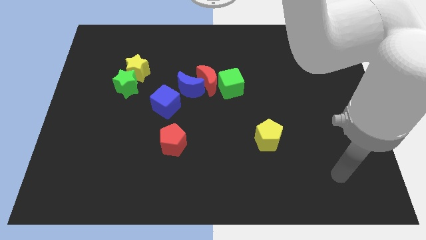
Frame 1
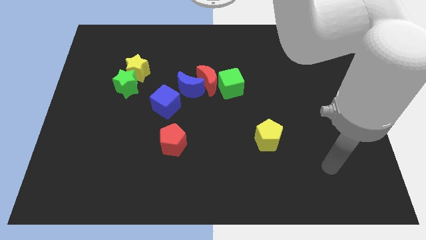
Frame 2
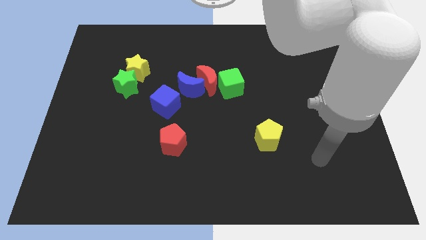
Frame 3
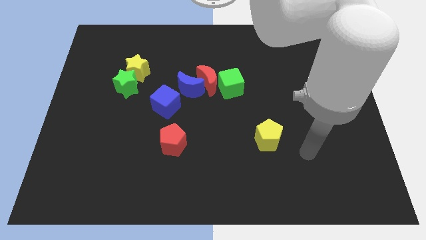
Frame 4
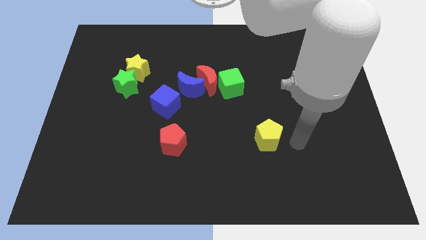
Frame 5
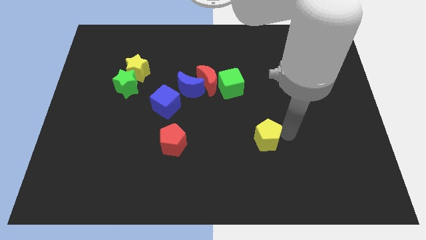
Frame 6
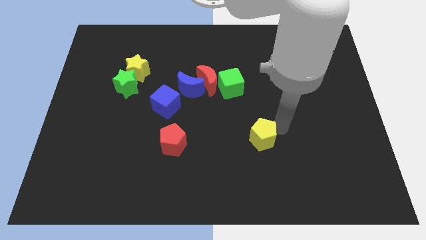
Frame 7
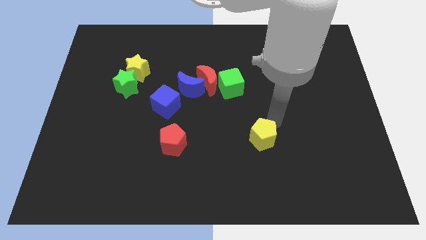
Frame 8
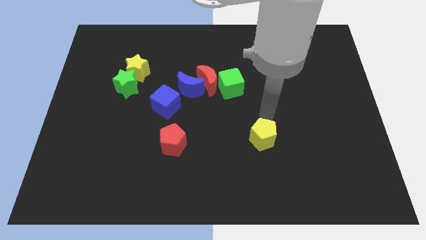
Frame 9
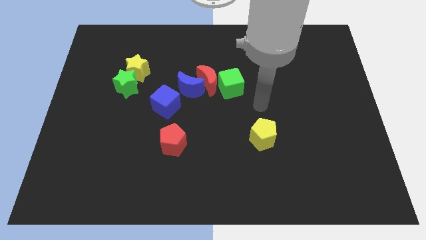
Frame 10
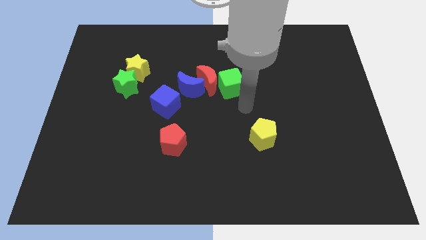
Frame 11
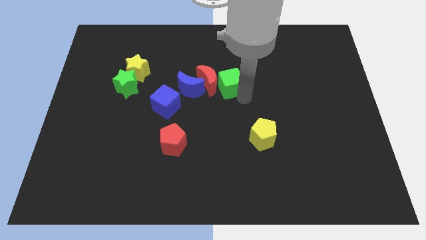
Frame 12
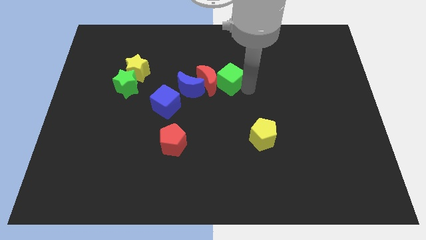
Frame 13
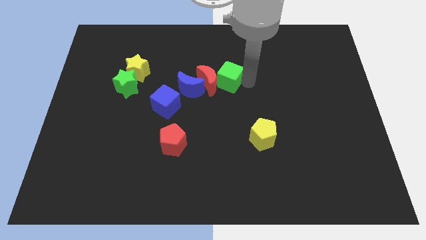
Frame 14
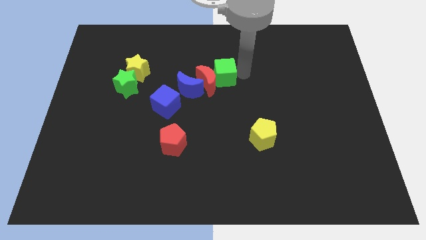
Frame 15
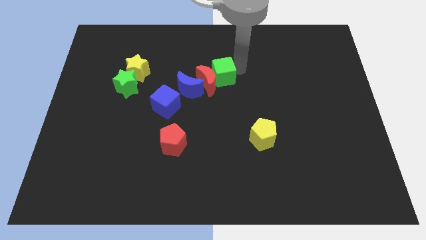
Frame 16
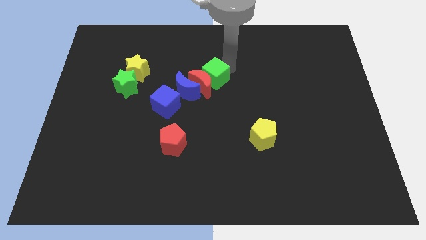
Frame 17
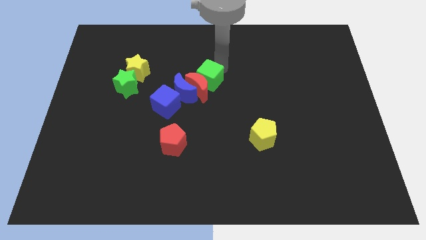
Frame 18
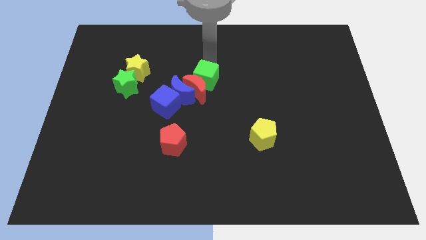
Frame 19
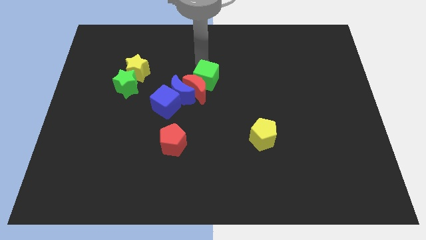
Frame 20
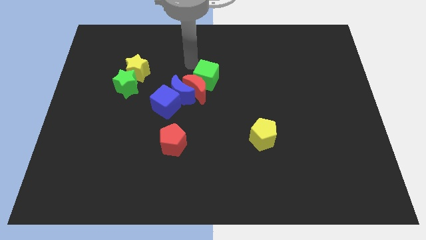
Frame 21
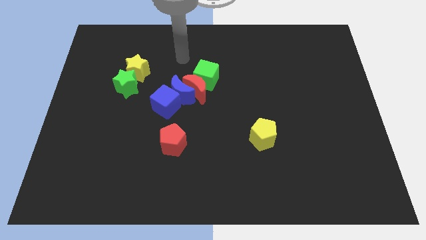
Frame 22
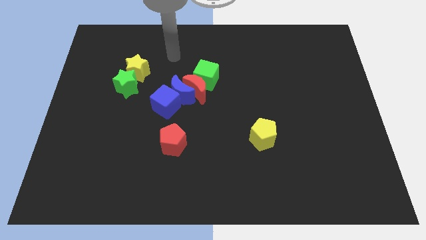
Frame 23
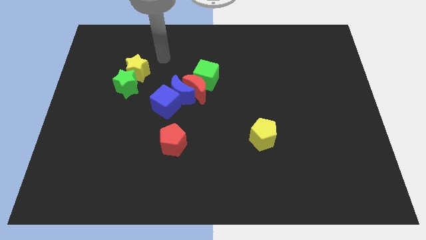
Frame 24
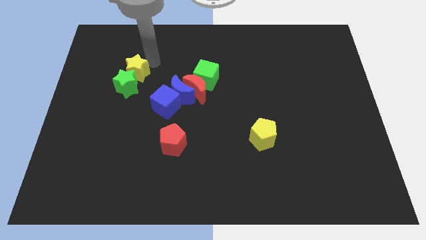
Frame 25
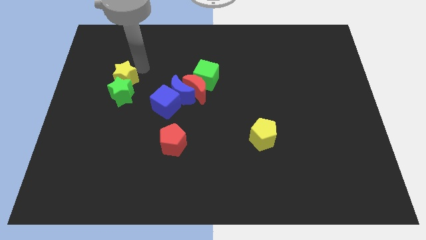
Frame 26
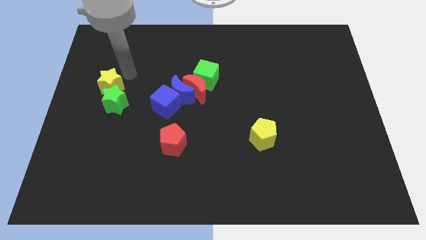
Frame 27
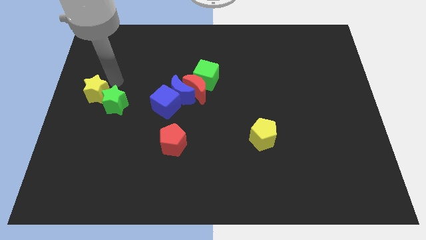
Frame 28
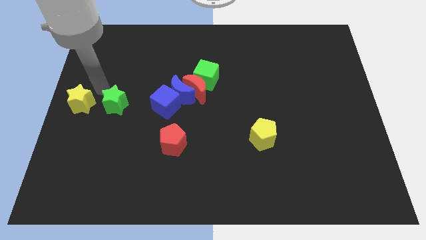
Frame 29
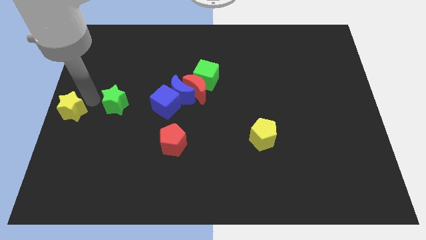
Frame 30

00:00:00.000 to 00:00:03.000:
separate the green star from the yellow star

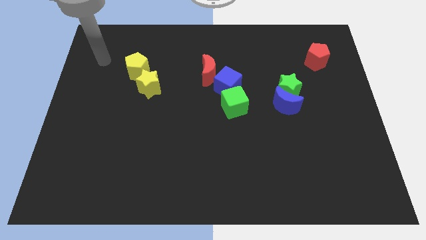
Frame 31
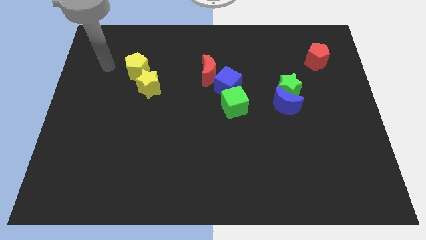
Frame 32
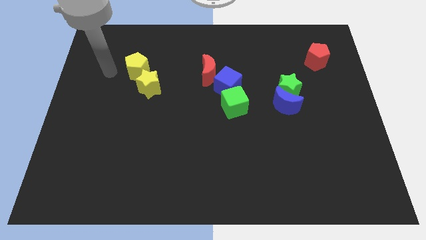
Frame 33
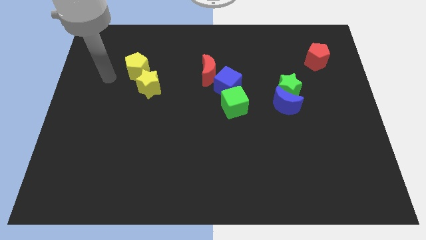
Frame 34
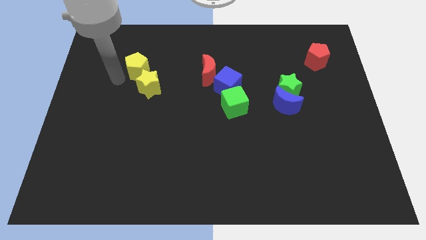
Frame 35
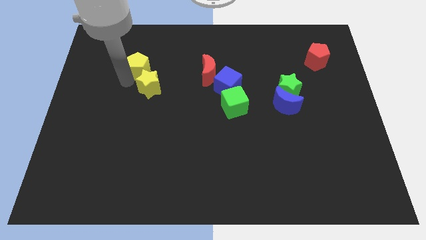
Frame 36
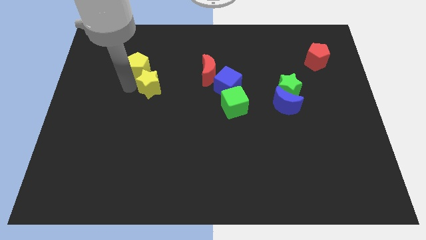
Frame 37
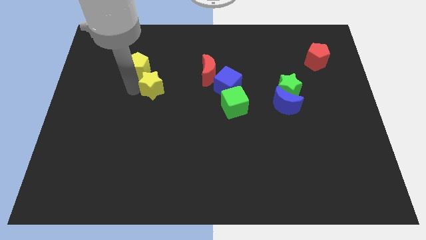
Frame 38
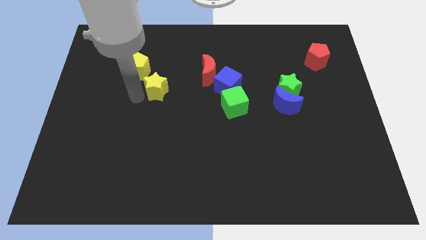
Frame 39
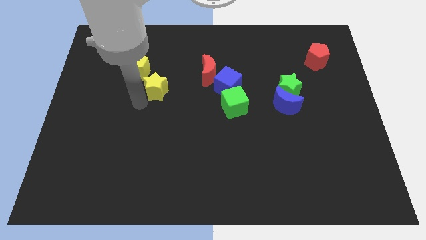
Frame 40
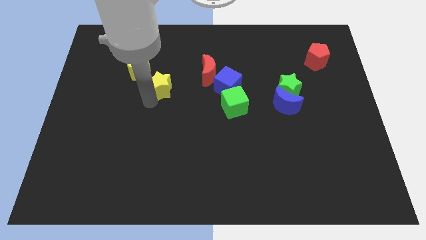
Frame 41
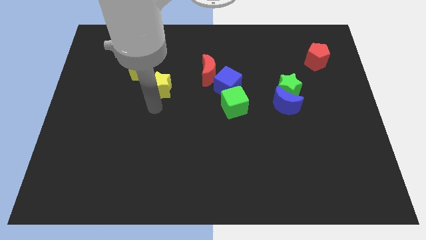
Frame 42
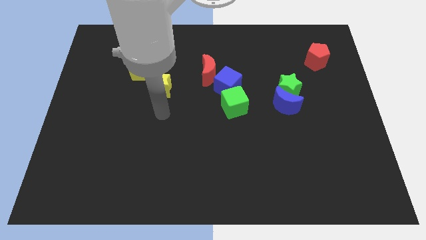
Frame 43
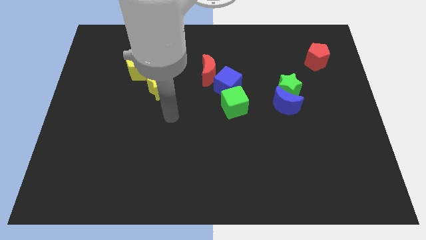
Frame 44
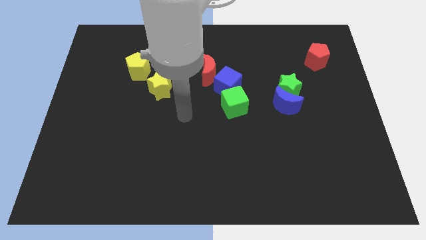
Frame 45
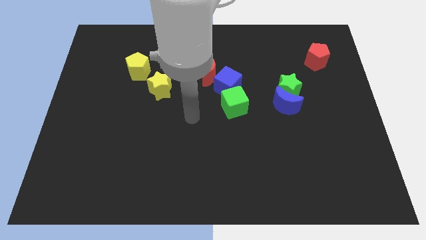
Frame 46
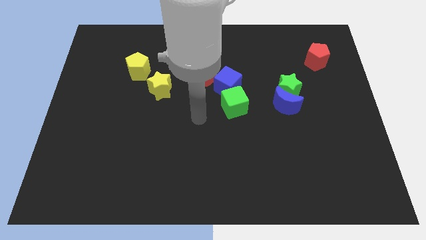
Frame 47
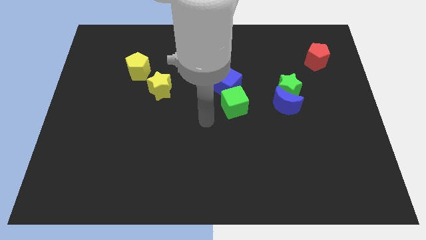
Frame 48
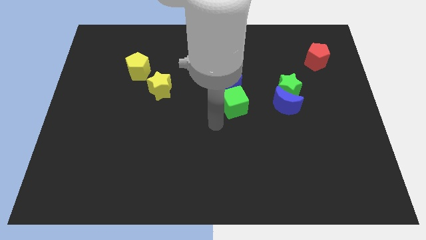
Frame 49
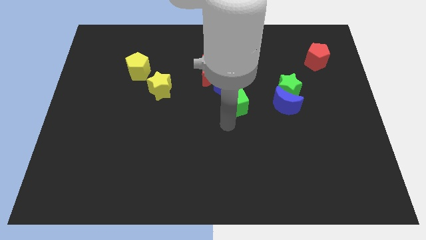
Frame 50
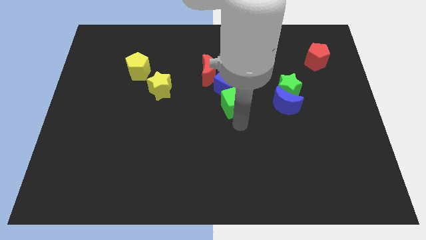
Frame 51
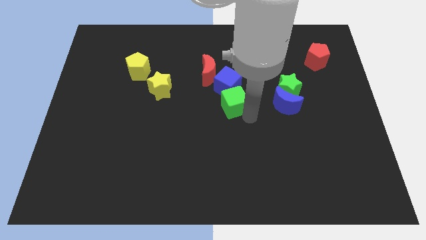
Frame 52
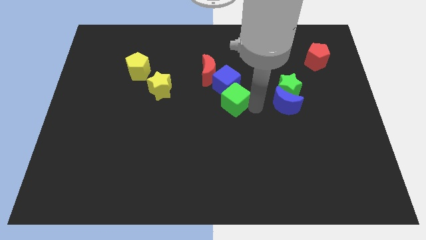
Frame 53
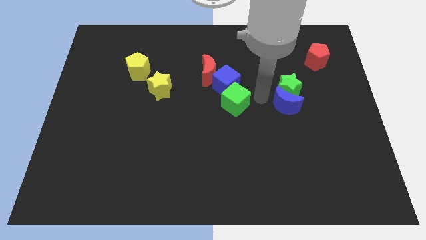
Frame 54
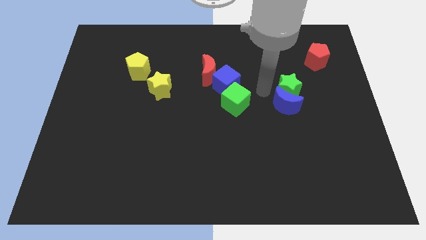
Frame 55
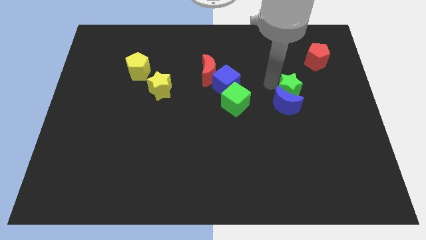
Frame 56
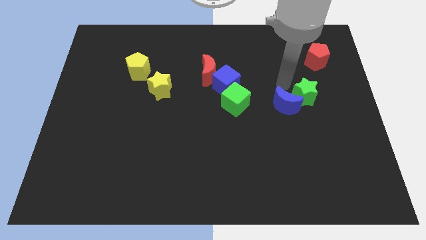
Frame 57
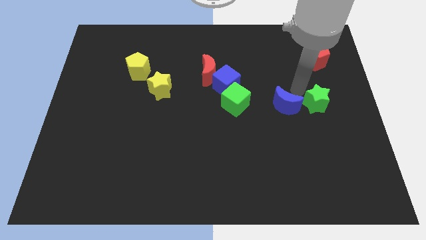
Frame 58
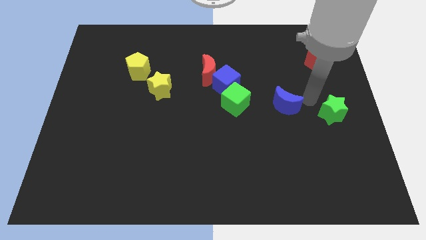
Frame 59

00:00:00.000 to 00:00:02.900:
move the blue moon away from the green star

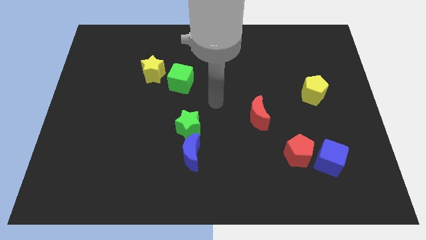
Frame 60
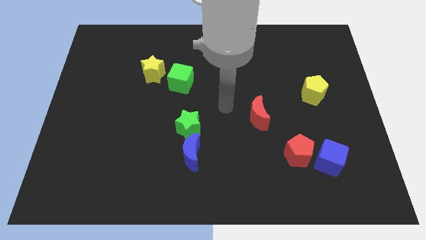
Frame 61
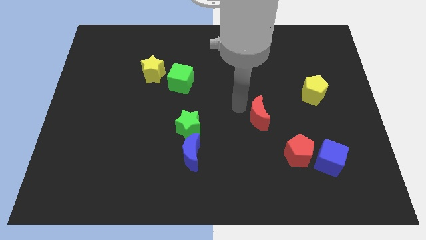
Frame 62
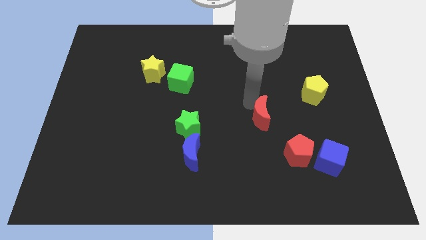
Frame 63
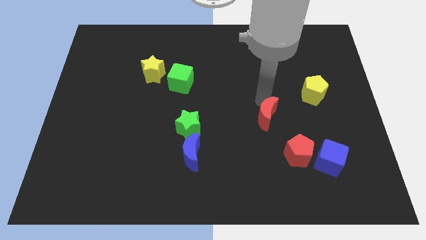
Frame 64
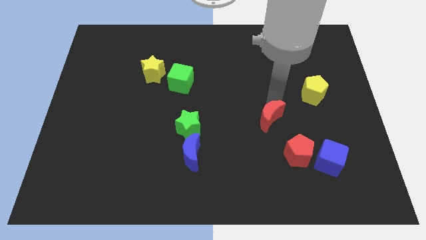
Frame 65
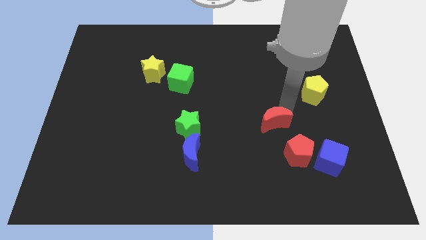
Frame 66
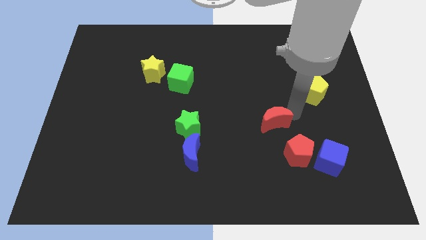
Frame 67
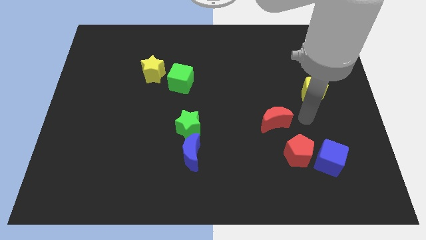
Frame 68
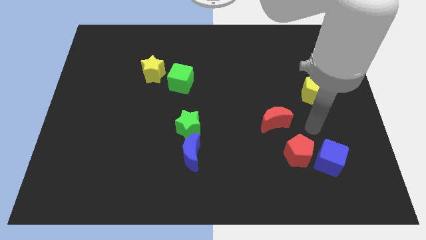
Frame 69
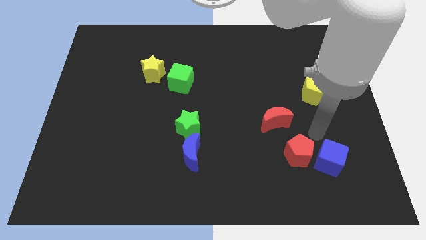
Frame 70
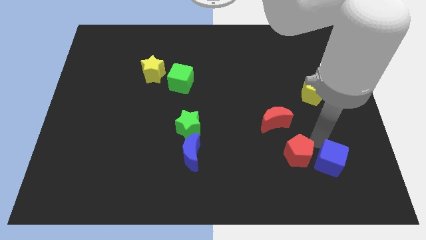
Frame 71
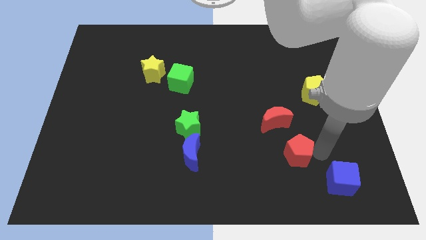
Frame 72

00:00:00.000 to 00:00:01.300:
pull the red pentagon apart from the blue cube

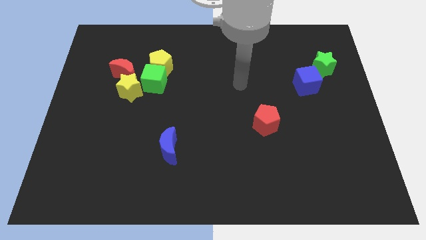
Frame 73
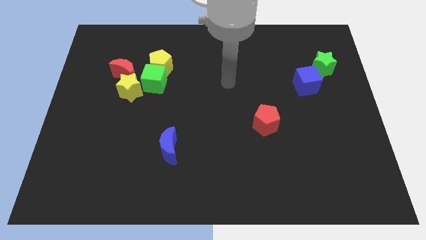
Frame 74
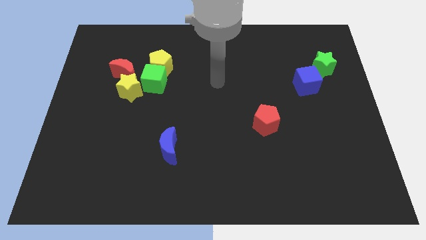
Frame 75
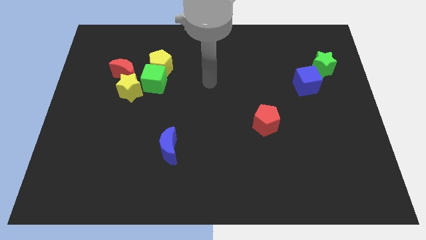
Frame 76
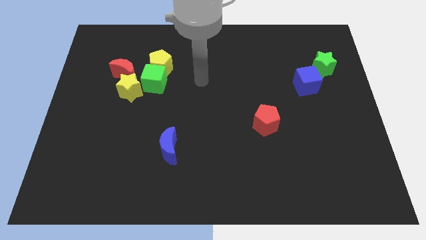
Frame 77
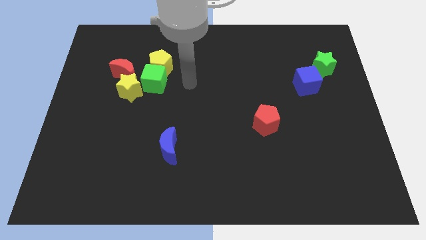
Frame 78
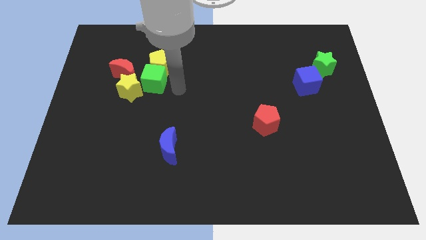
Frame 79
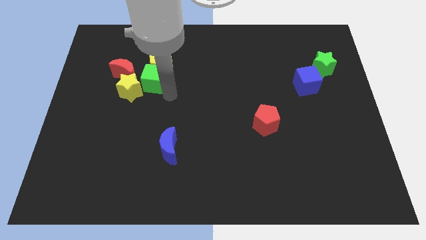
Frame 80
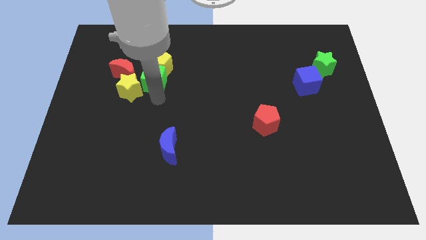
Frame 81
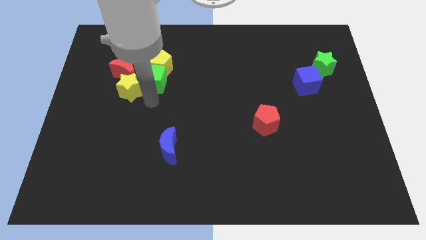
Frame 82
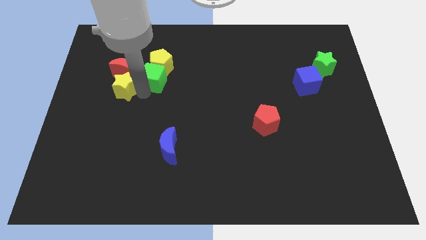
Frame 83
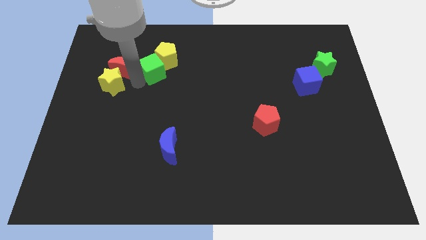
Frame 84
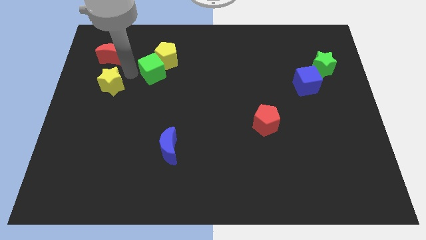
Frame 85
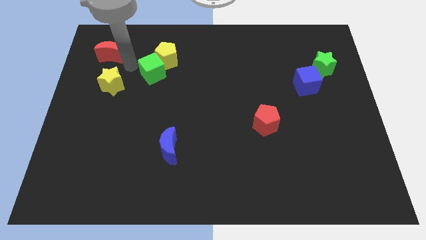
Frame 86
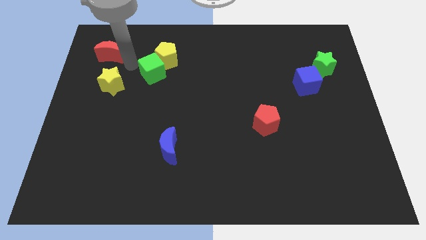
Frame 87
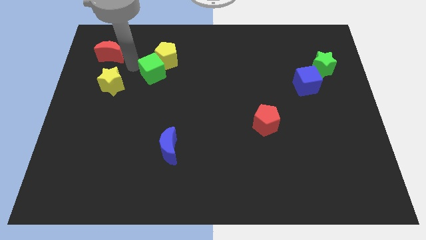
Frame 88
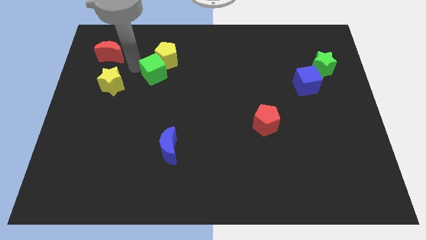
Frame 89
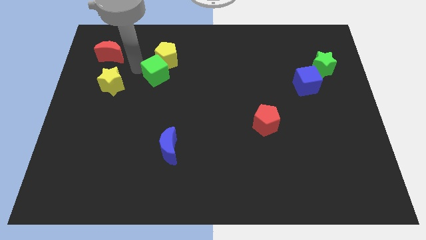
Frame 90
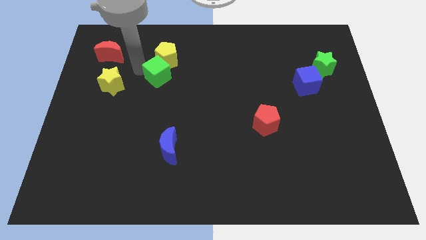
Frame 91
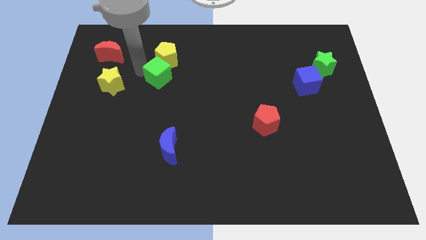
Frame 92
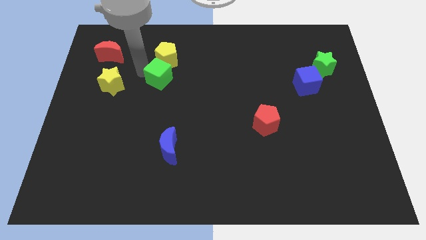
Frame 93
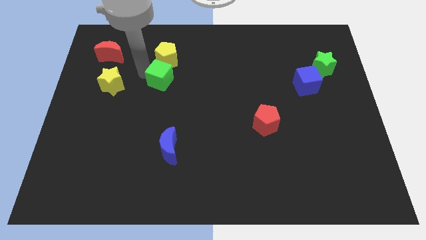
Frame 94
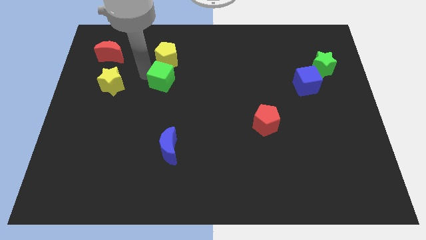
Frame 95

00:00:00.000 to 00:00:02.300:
move the green cube away from the group of blocks
